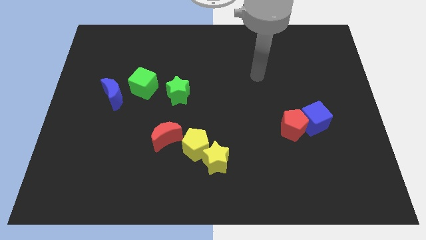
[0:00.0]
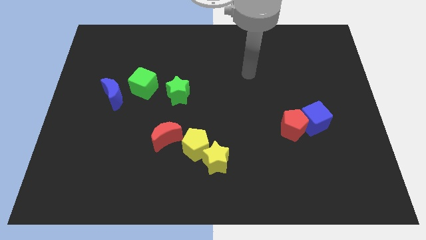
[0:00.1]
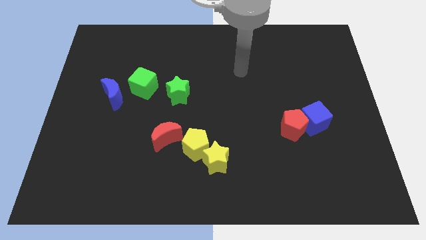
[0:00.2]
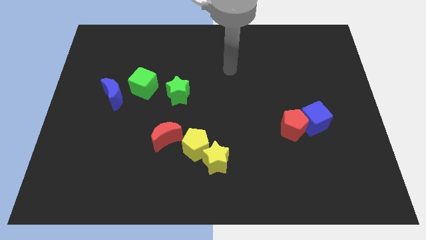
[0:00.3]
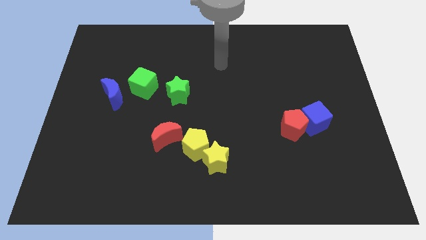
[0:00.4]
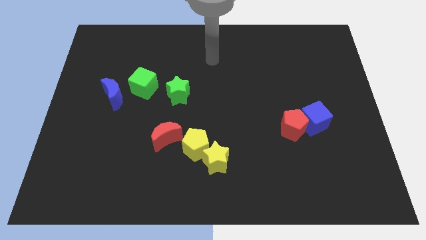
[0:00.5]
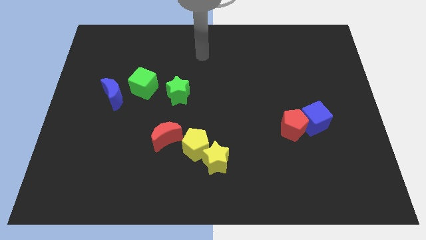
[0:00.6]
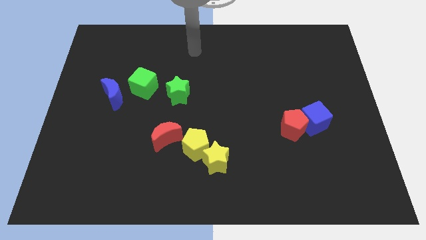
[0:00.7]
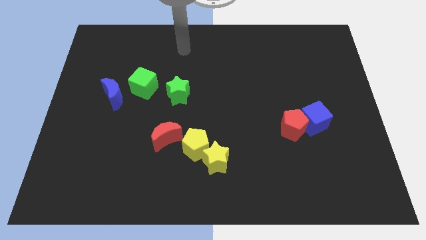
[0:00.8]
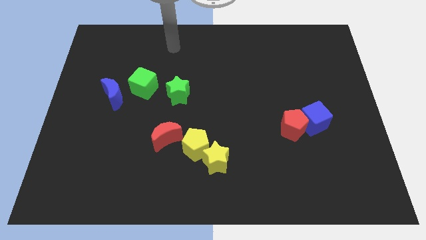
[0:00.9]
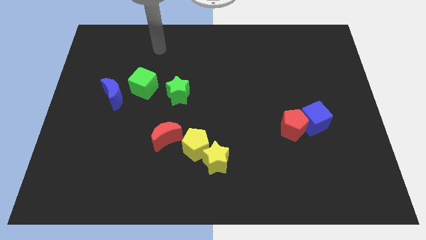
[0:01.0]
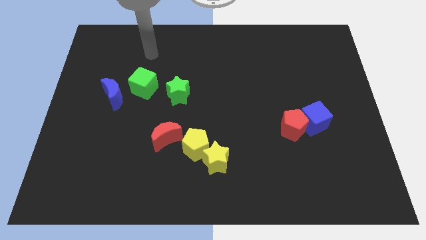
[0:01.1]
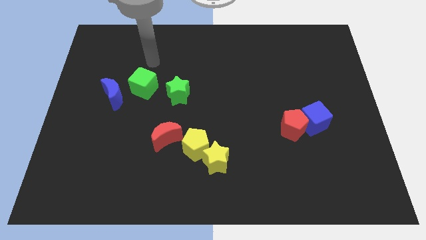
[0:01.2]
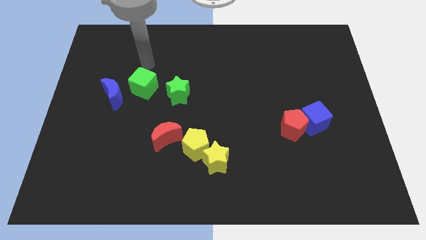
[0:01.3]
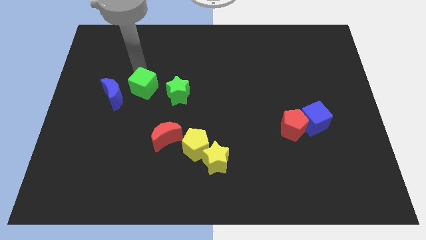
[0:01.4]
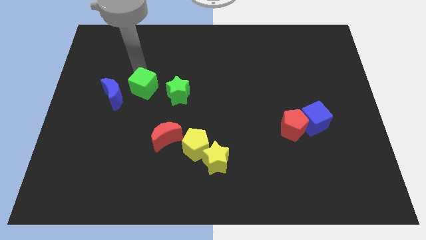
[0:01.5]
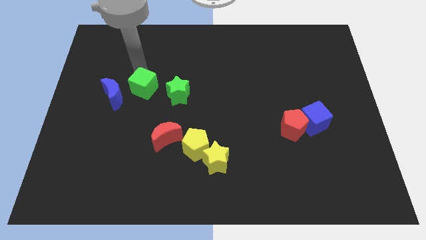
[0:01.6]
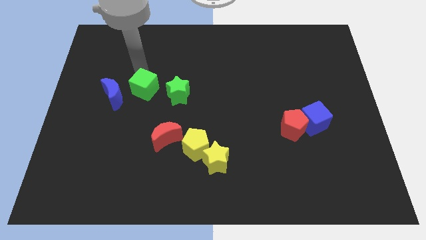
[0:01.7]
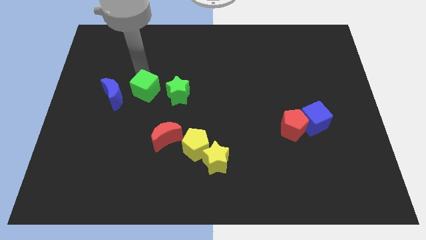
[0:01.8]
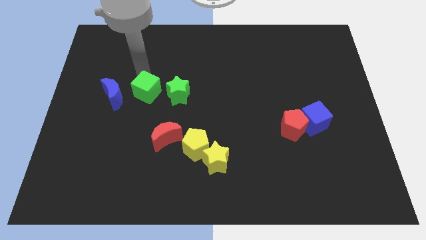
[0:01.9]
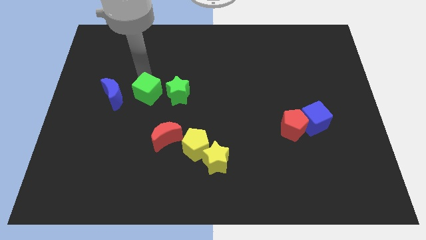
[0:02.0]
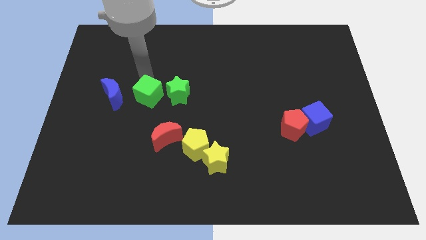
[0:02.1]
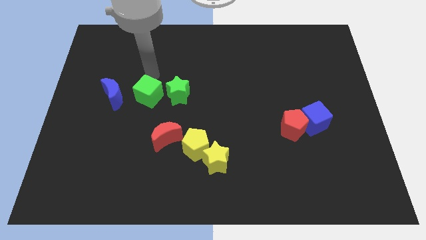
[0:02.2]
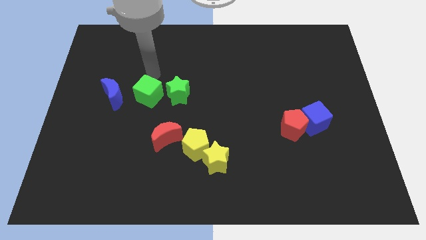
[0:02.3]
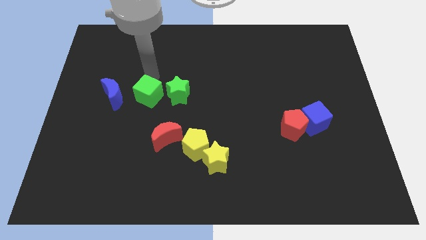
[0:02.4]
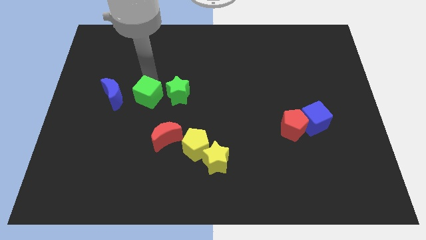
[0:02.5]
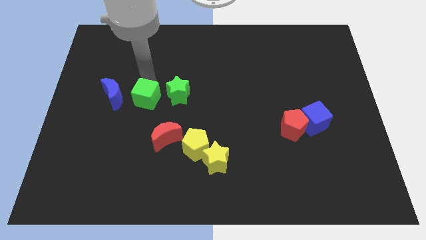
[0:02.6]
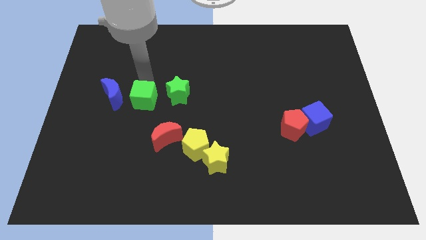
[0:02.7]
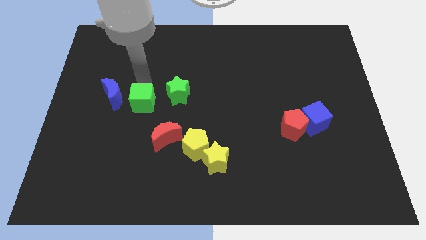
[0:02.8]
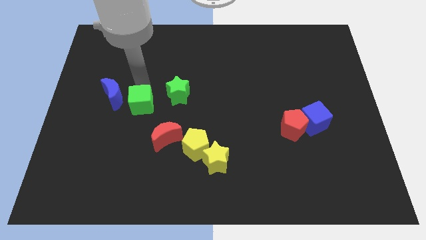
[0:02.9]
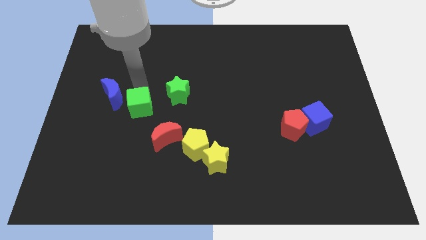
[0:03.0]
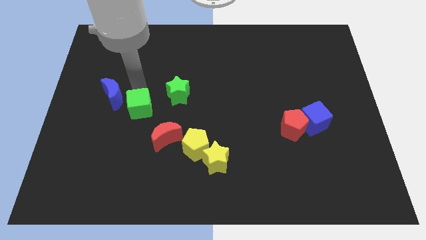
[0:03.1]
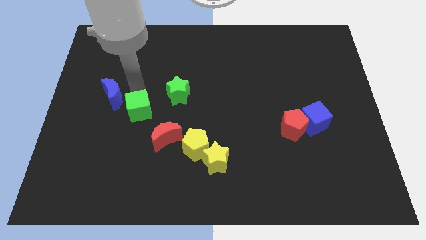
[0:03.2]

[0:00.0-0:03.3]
slightly push the green cube downwards

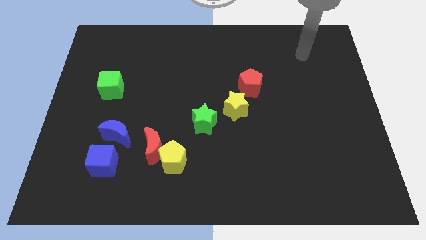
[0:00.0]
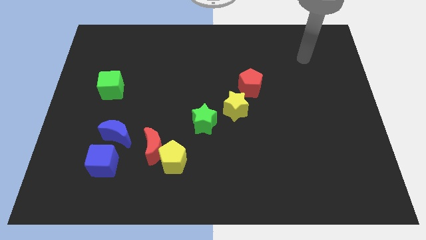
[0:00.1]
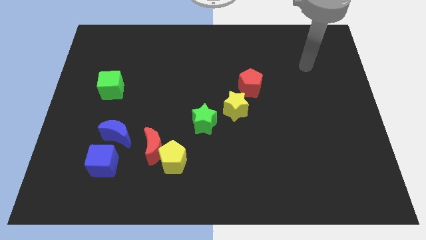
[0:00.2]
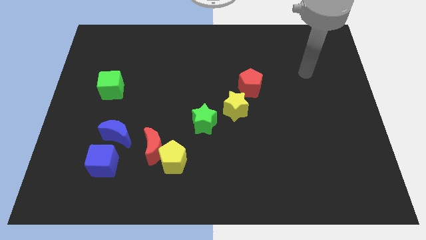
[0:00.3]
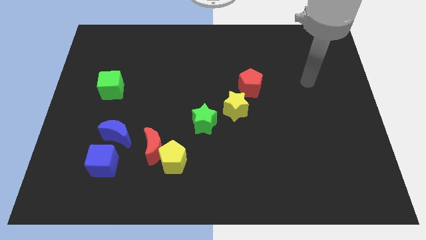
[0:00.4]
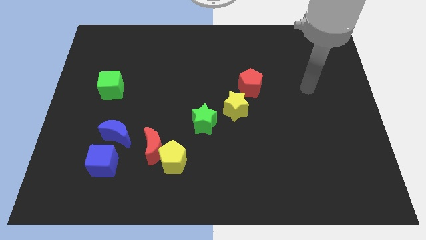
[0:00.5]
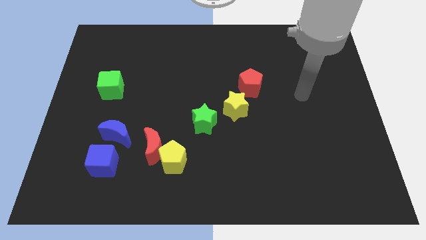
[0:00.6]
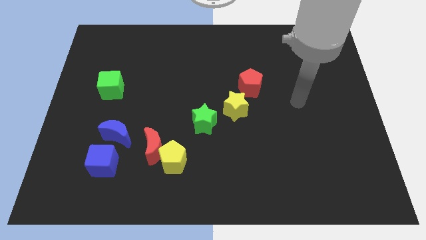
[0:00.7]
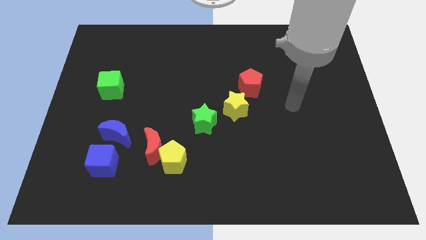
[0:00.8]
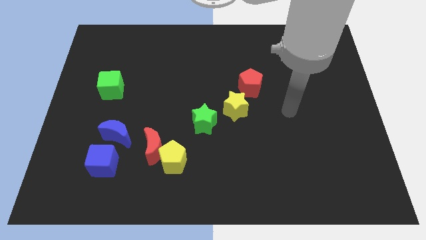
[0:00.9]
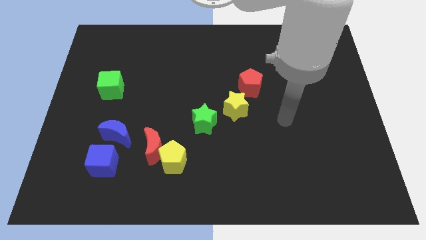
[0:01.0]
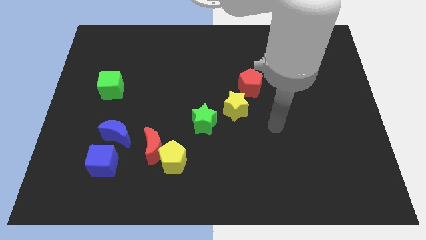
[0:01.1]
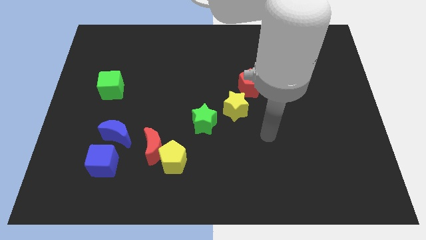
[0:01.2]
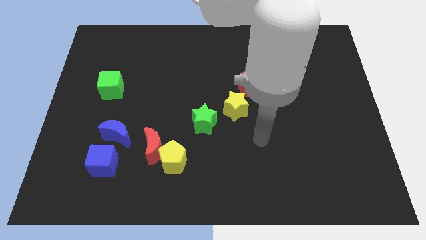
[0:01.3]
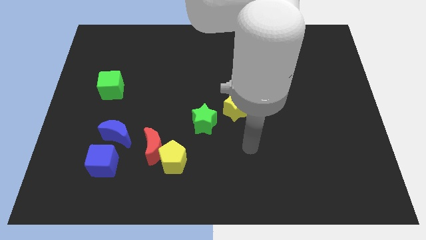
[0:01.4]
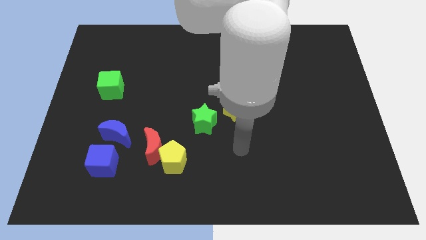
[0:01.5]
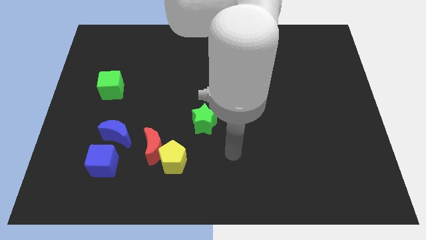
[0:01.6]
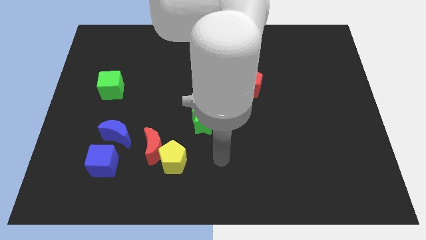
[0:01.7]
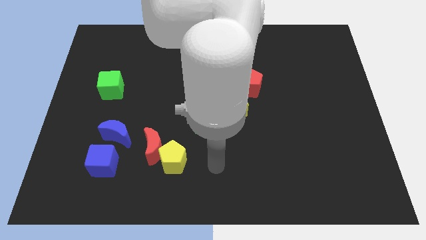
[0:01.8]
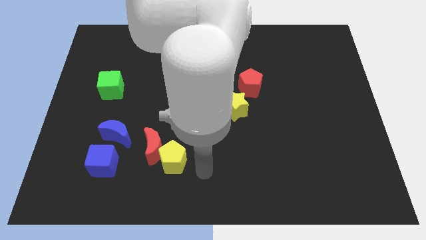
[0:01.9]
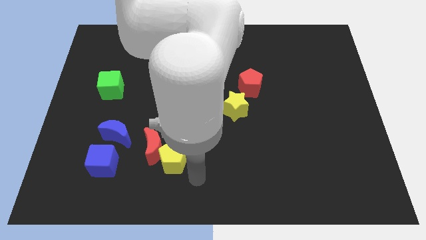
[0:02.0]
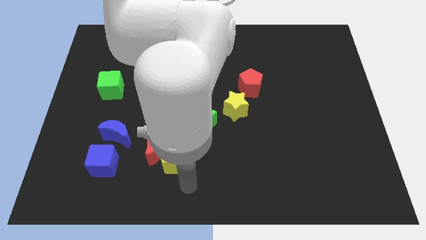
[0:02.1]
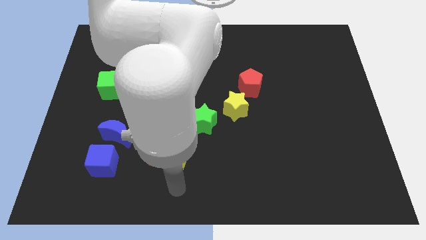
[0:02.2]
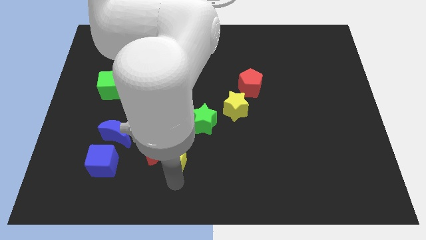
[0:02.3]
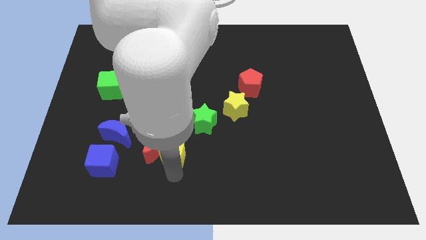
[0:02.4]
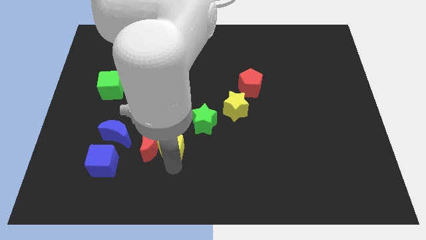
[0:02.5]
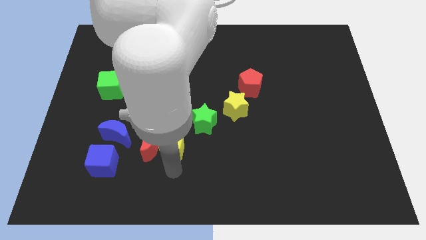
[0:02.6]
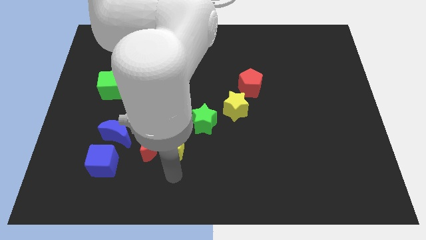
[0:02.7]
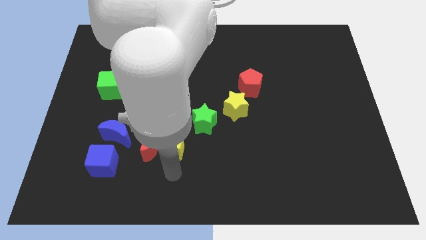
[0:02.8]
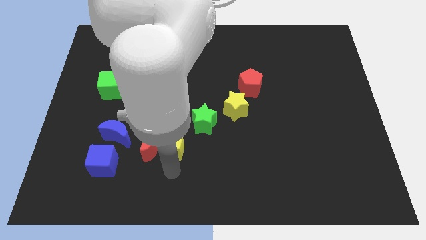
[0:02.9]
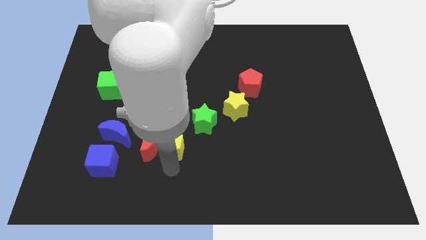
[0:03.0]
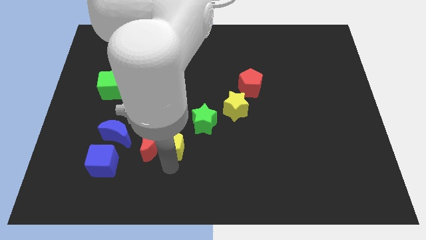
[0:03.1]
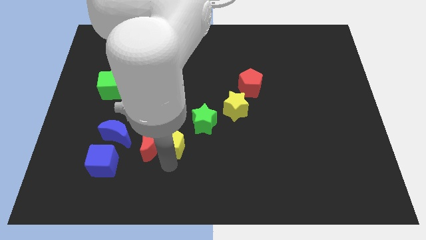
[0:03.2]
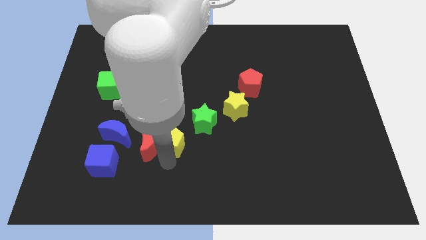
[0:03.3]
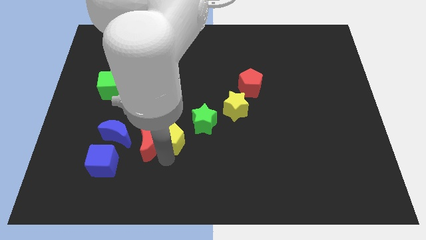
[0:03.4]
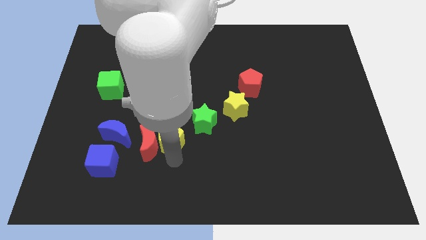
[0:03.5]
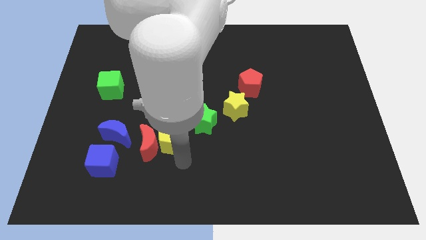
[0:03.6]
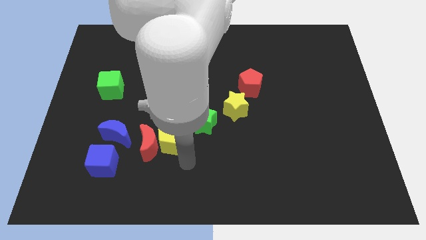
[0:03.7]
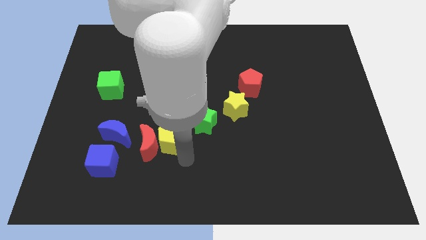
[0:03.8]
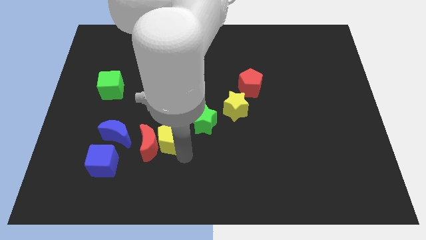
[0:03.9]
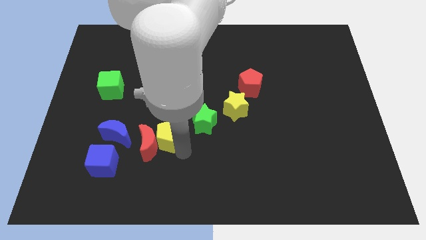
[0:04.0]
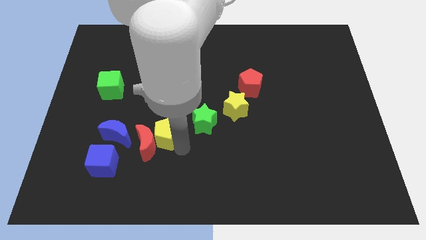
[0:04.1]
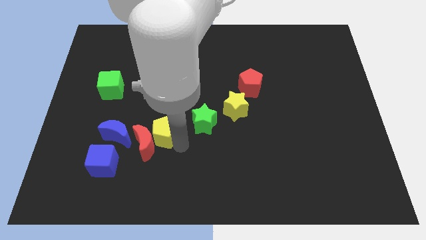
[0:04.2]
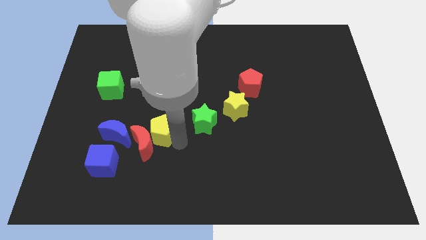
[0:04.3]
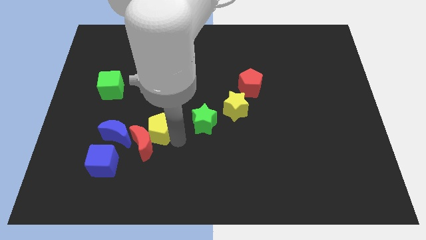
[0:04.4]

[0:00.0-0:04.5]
slide the yellow pentagon a little bit up and left diagonally

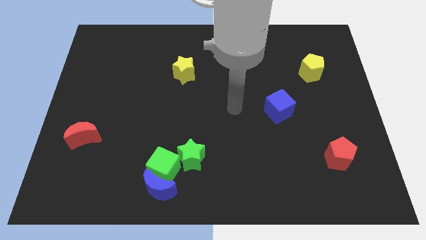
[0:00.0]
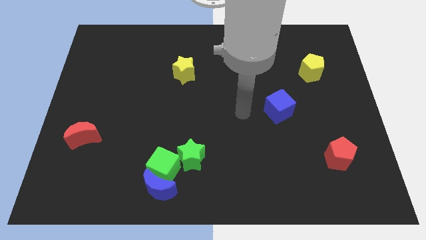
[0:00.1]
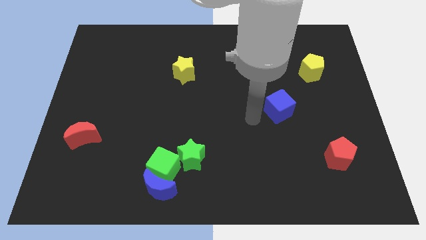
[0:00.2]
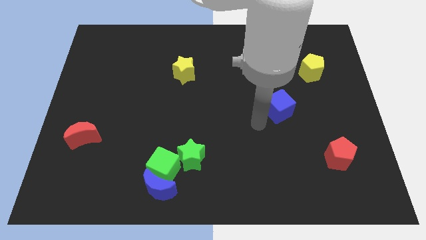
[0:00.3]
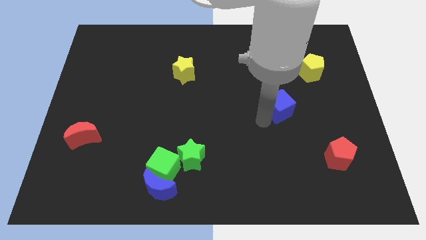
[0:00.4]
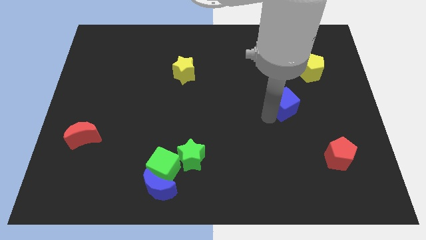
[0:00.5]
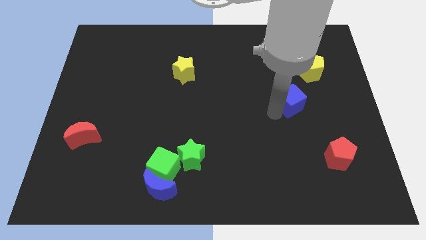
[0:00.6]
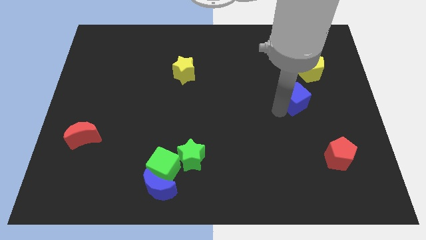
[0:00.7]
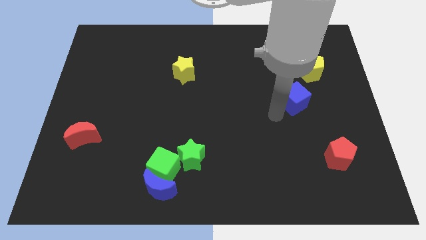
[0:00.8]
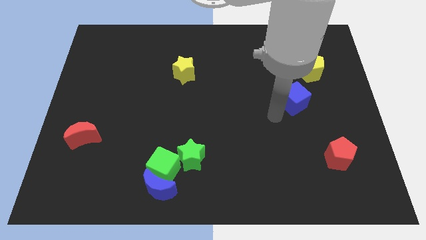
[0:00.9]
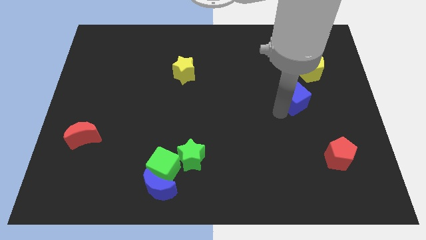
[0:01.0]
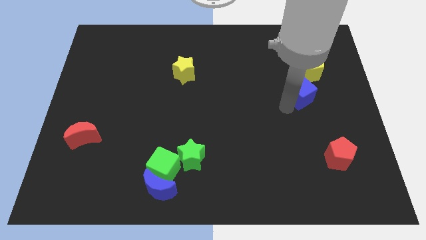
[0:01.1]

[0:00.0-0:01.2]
slide the blue cube up and right diagonally somewhat
